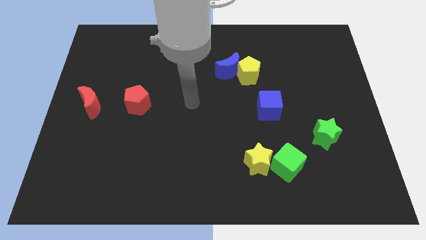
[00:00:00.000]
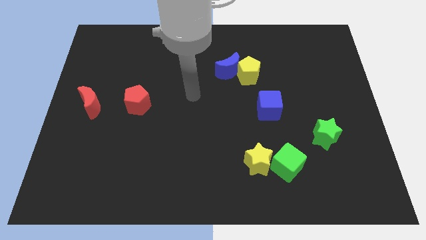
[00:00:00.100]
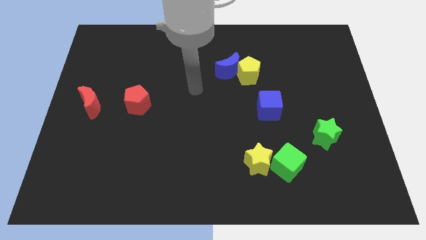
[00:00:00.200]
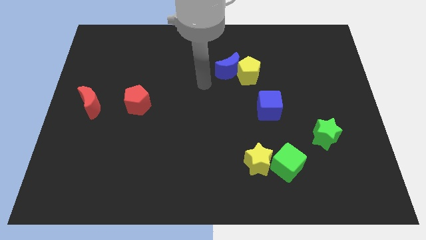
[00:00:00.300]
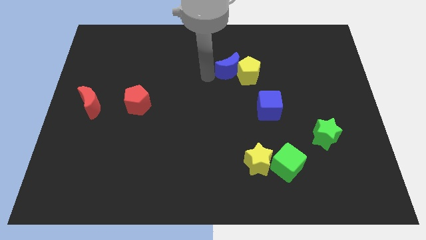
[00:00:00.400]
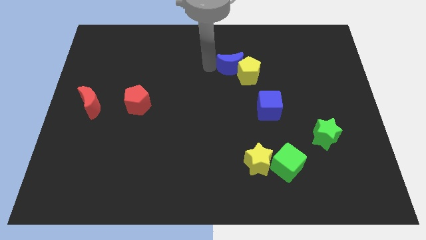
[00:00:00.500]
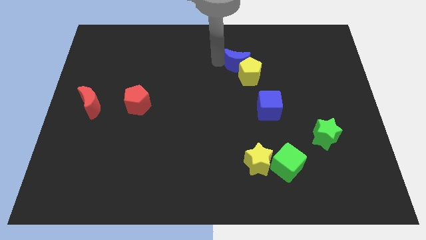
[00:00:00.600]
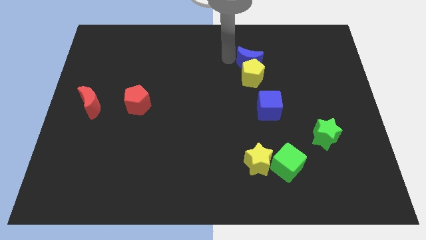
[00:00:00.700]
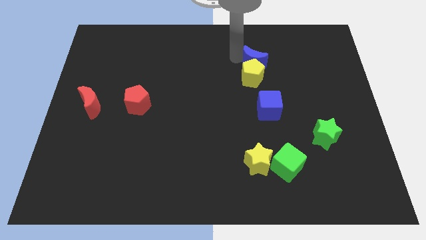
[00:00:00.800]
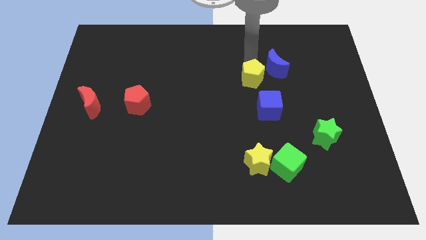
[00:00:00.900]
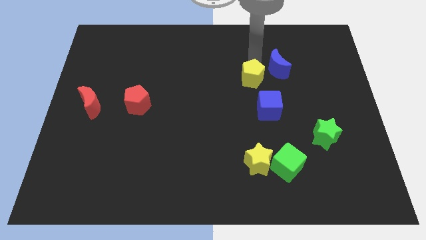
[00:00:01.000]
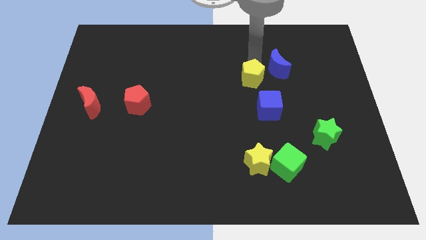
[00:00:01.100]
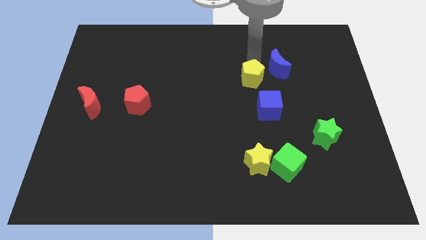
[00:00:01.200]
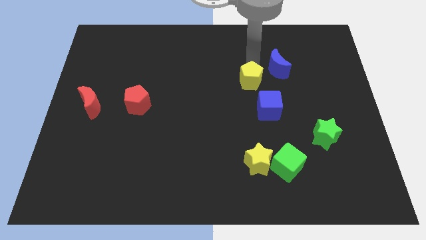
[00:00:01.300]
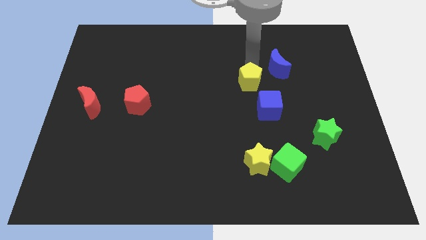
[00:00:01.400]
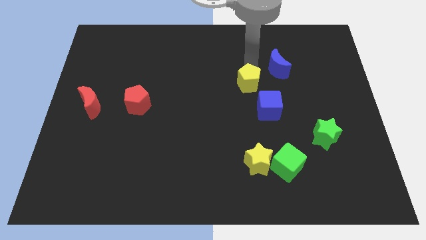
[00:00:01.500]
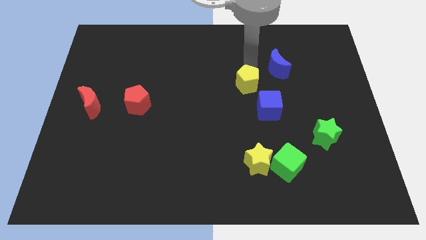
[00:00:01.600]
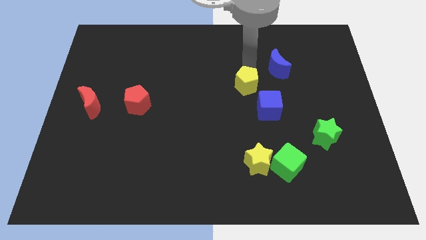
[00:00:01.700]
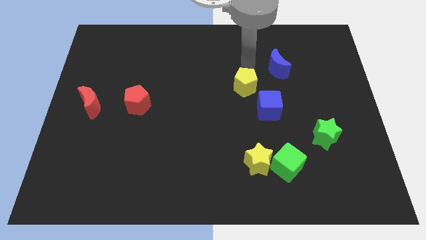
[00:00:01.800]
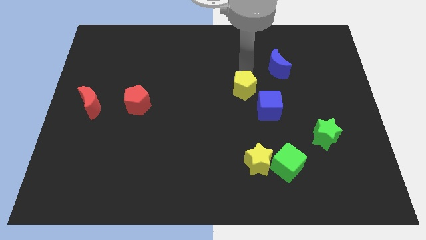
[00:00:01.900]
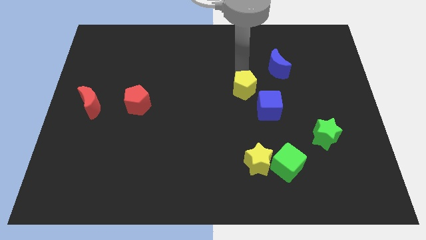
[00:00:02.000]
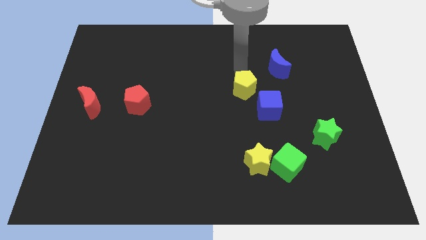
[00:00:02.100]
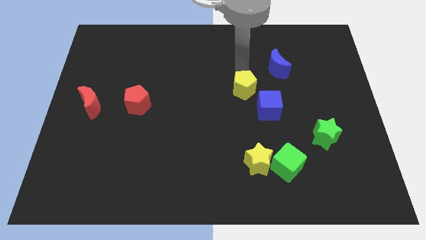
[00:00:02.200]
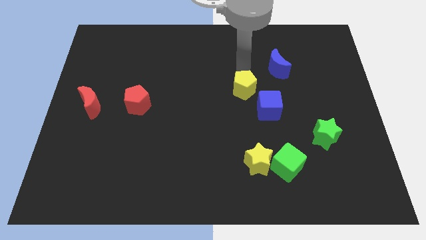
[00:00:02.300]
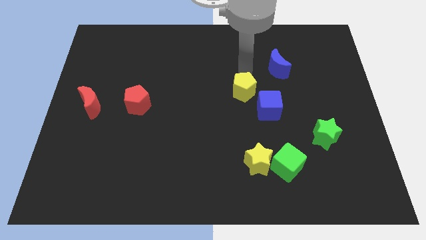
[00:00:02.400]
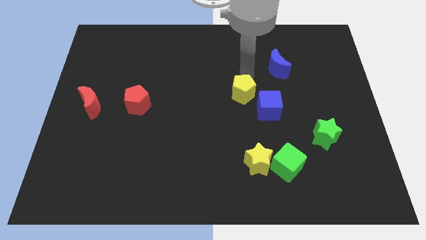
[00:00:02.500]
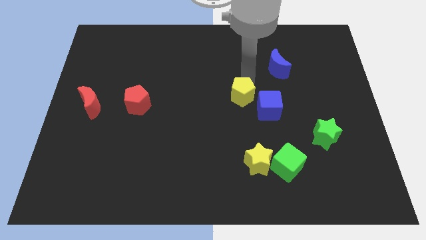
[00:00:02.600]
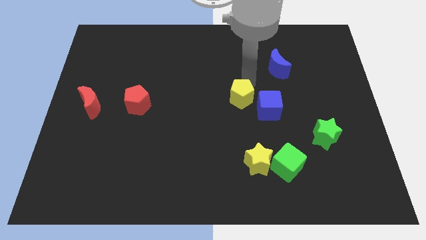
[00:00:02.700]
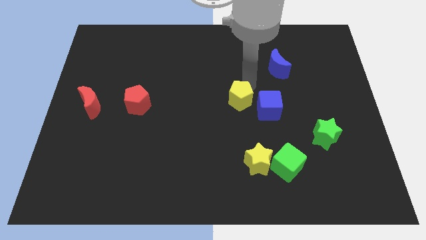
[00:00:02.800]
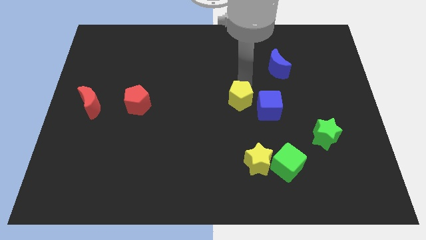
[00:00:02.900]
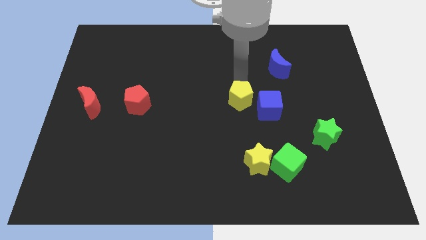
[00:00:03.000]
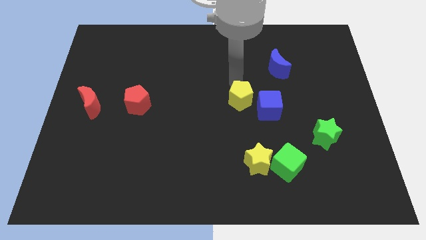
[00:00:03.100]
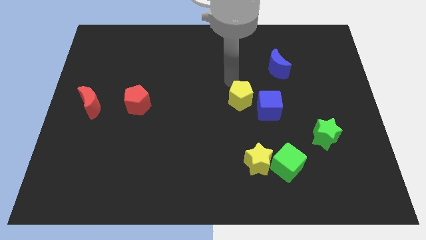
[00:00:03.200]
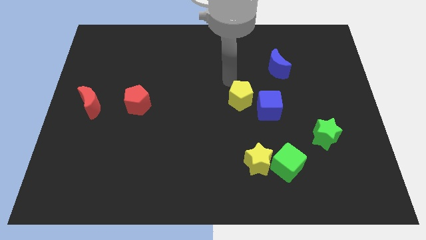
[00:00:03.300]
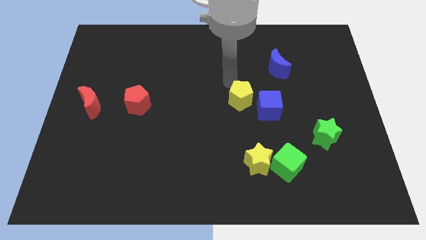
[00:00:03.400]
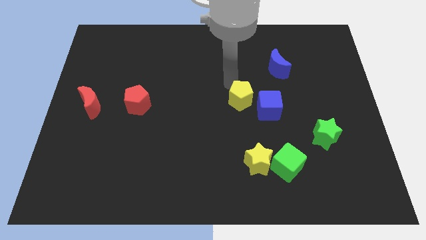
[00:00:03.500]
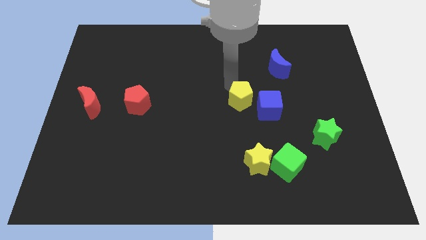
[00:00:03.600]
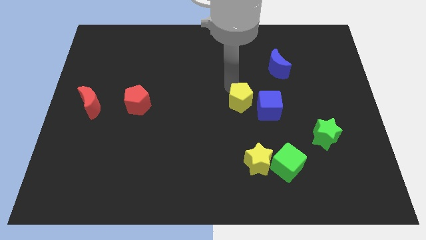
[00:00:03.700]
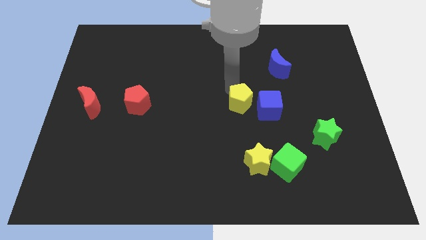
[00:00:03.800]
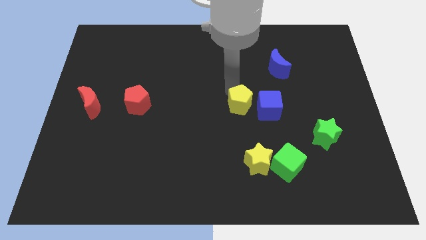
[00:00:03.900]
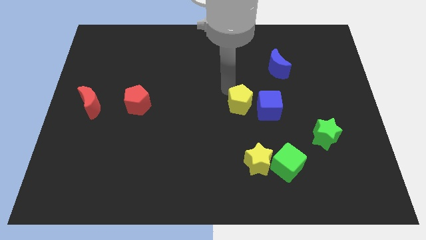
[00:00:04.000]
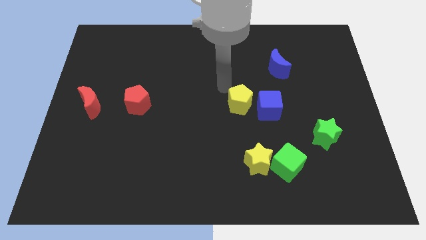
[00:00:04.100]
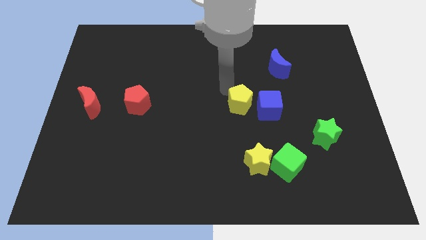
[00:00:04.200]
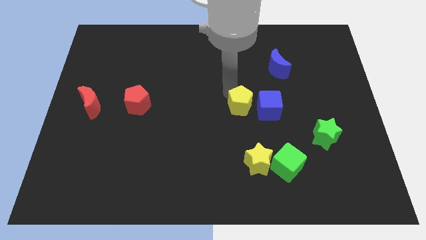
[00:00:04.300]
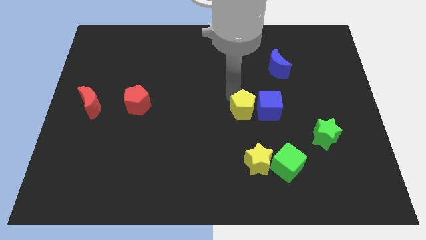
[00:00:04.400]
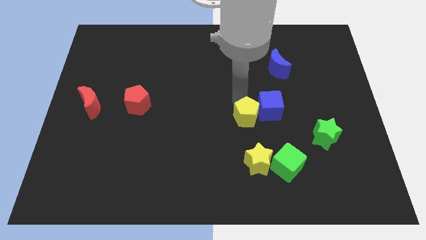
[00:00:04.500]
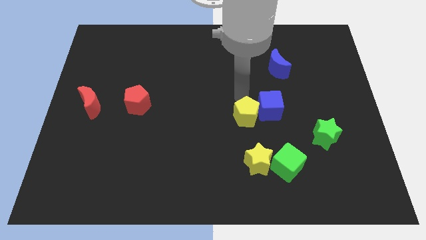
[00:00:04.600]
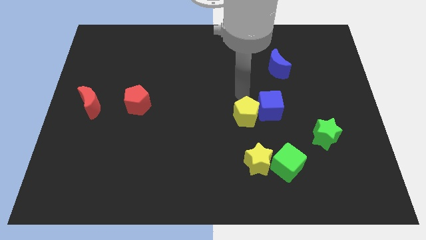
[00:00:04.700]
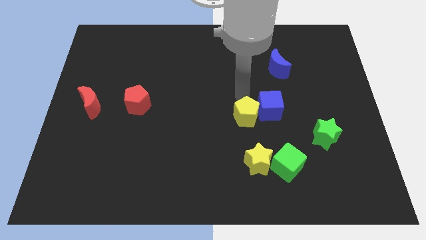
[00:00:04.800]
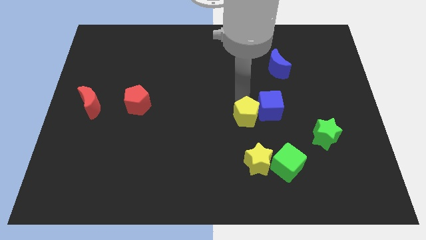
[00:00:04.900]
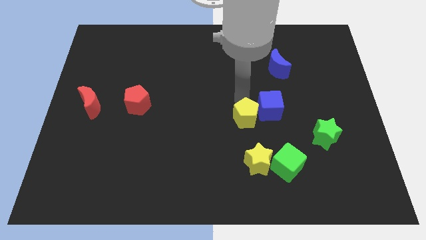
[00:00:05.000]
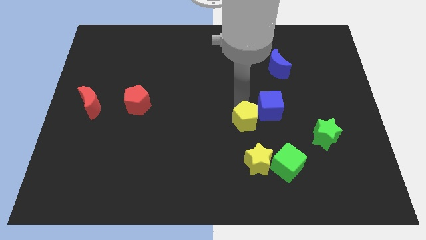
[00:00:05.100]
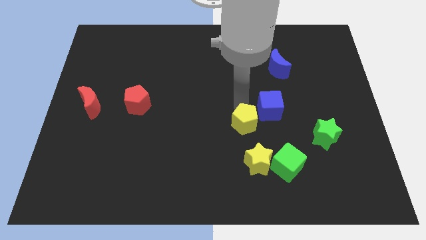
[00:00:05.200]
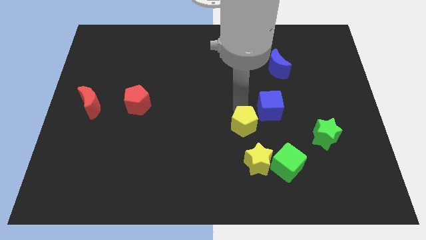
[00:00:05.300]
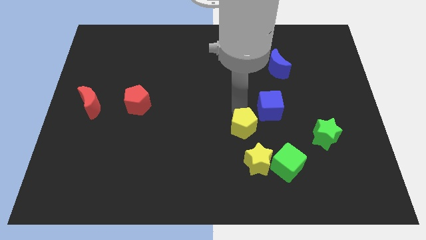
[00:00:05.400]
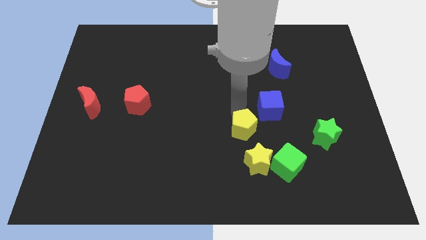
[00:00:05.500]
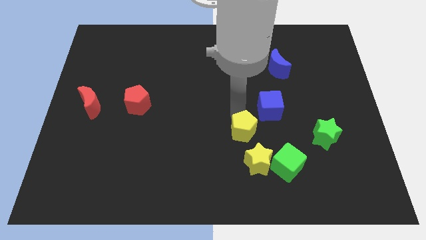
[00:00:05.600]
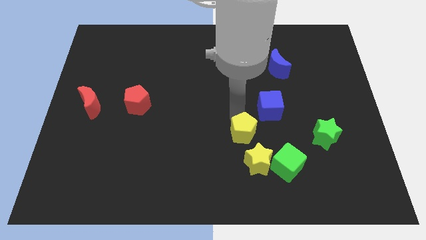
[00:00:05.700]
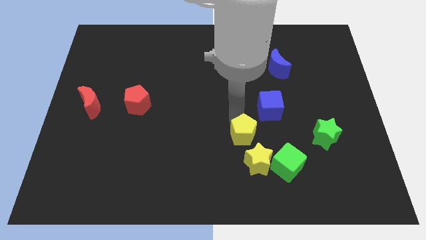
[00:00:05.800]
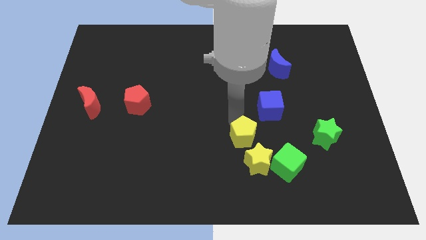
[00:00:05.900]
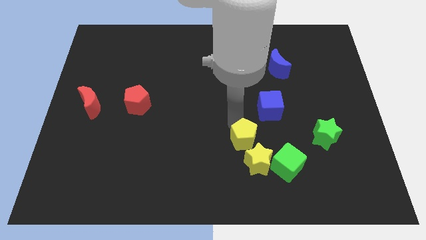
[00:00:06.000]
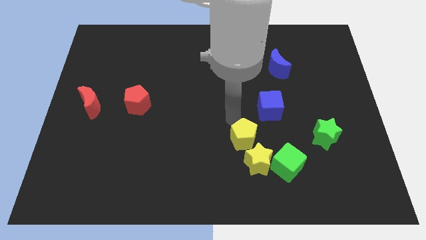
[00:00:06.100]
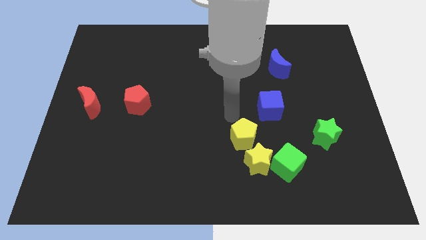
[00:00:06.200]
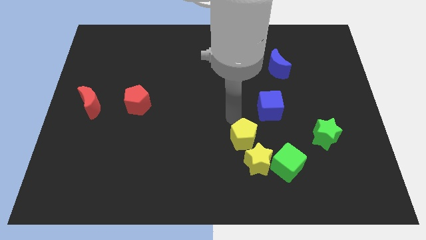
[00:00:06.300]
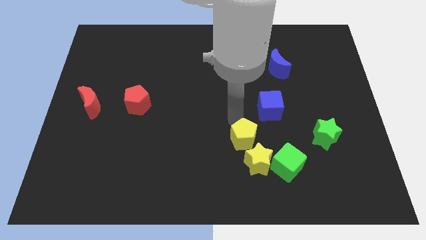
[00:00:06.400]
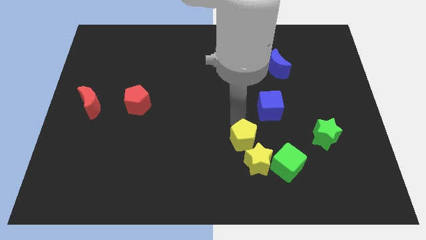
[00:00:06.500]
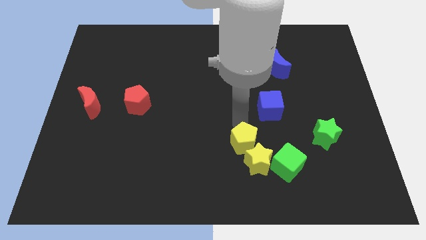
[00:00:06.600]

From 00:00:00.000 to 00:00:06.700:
slide the yellow pentagon close to the yellow star

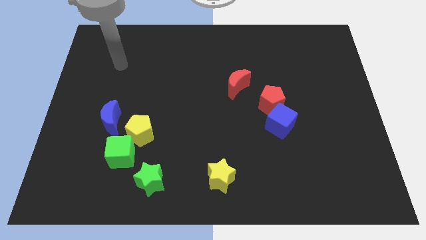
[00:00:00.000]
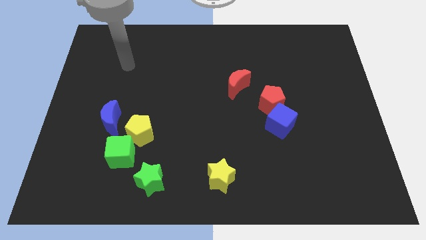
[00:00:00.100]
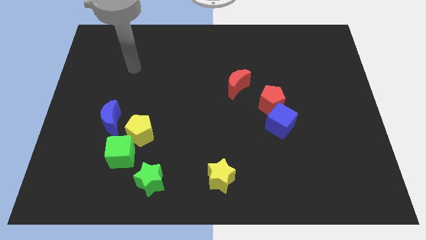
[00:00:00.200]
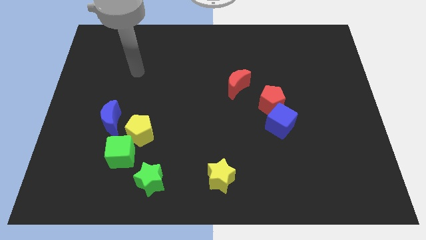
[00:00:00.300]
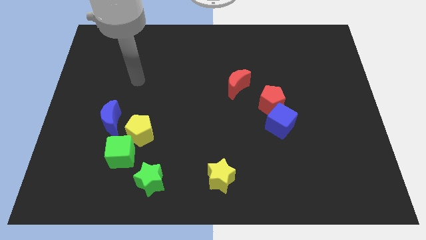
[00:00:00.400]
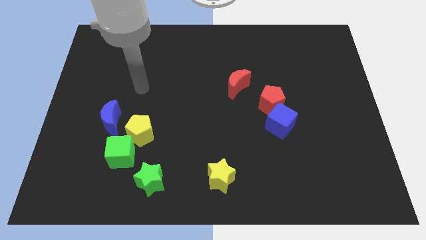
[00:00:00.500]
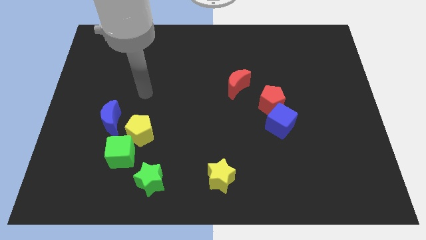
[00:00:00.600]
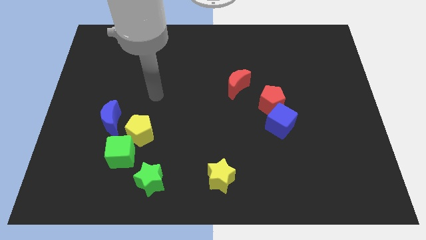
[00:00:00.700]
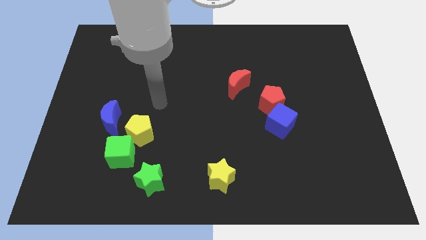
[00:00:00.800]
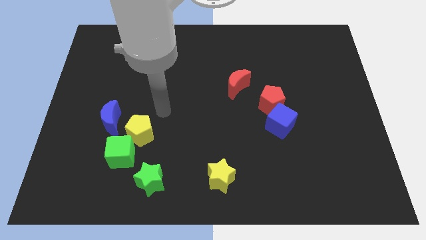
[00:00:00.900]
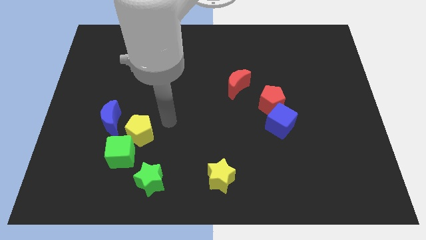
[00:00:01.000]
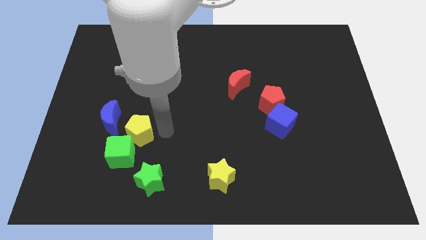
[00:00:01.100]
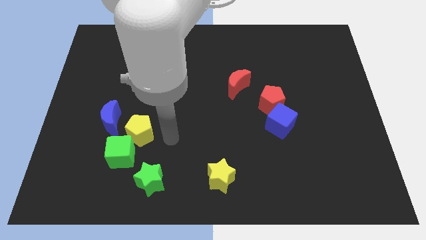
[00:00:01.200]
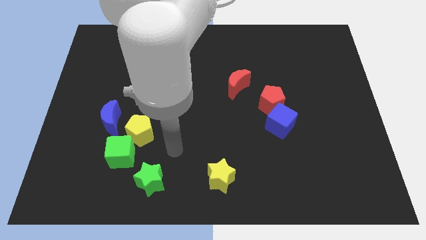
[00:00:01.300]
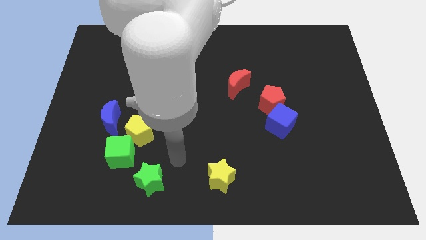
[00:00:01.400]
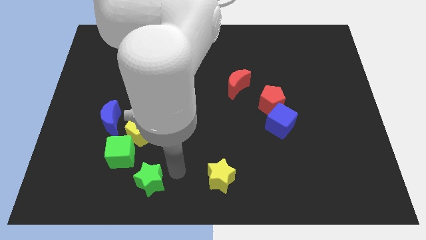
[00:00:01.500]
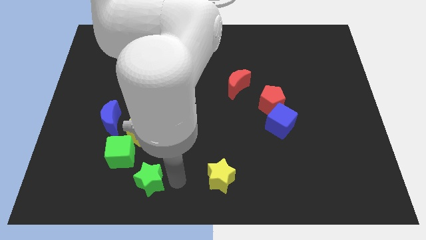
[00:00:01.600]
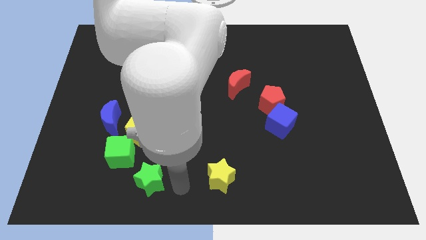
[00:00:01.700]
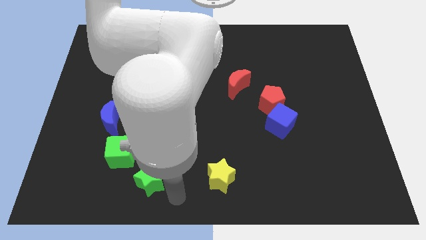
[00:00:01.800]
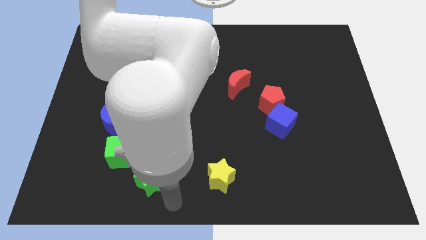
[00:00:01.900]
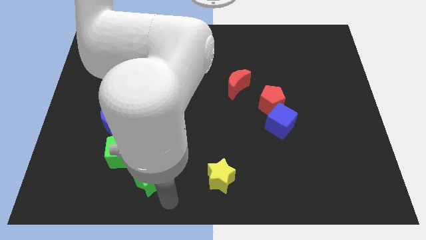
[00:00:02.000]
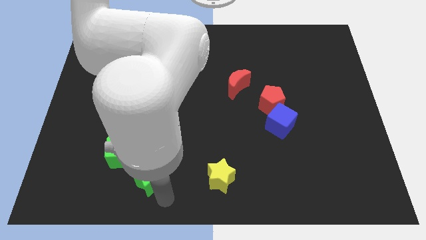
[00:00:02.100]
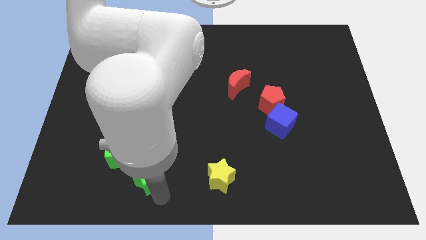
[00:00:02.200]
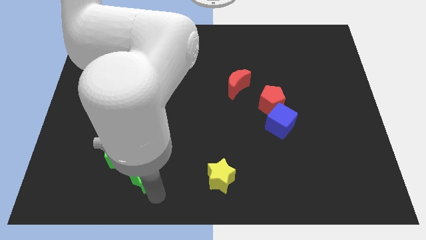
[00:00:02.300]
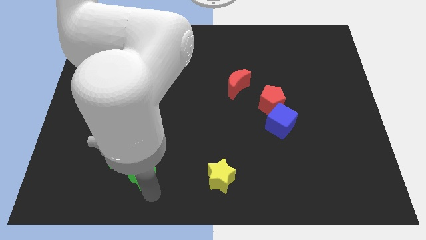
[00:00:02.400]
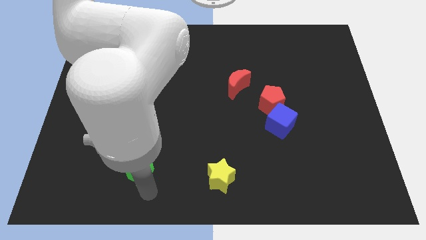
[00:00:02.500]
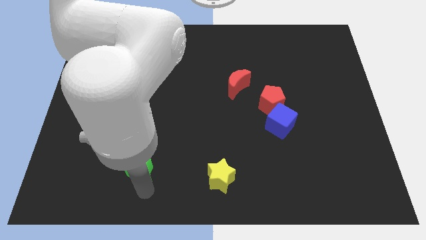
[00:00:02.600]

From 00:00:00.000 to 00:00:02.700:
slide the green star next to the green cube
